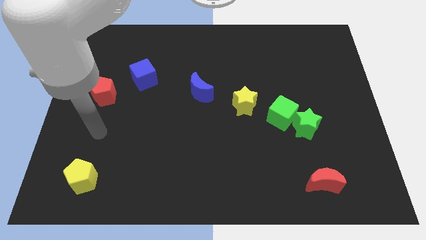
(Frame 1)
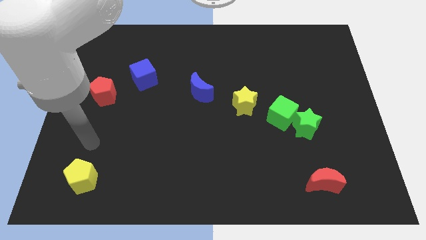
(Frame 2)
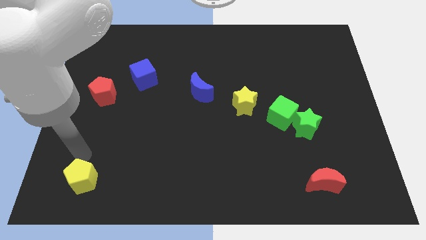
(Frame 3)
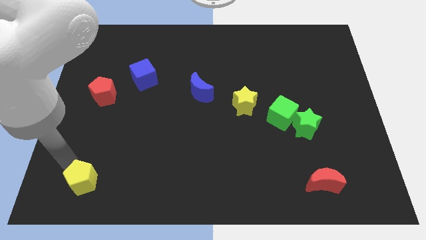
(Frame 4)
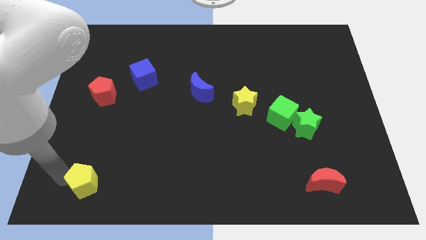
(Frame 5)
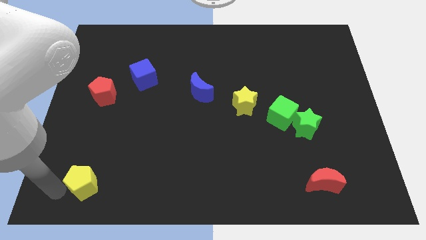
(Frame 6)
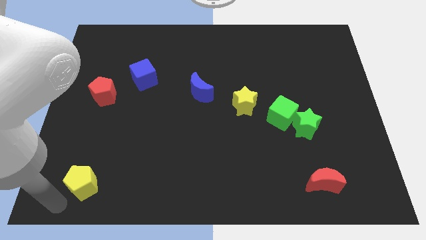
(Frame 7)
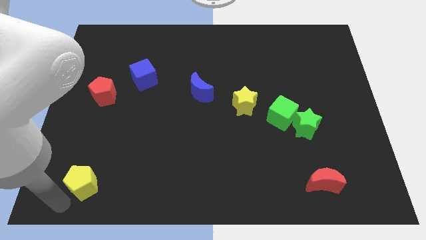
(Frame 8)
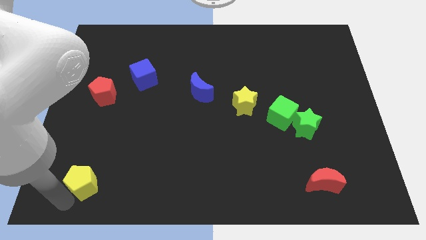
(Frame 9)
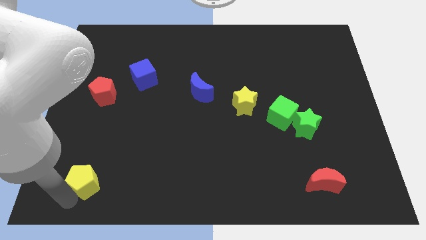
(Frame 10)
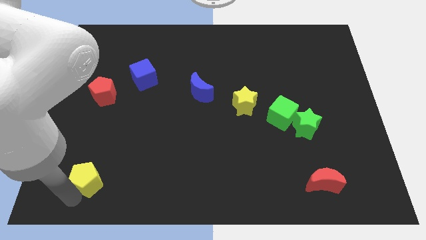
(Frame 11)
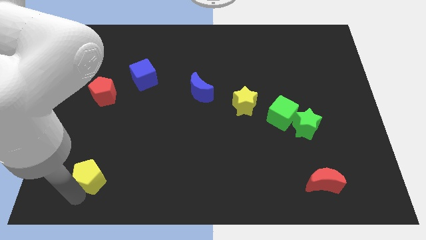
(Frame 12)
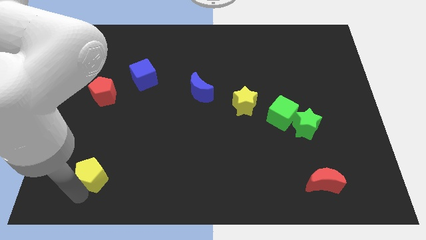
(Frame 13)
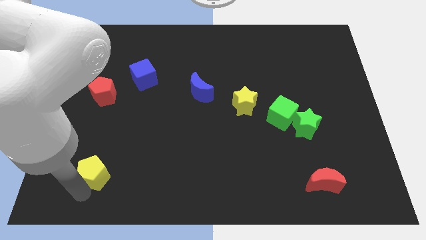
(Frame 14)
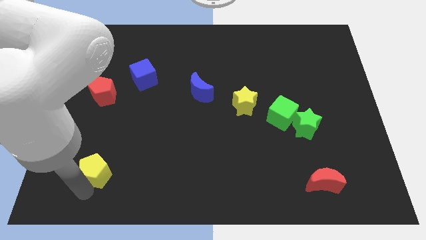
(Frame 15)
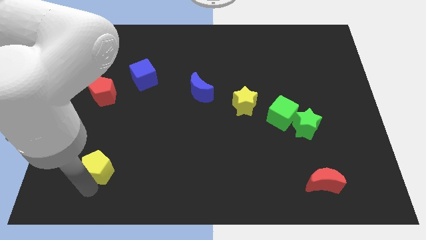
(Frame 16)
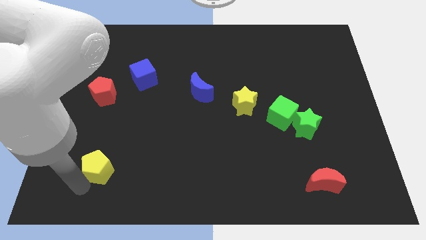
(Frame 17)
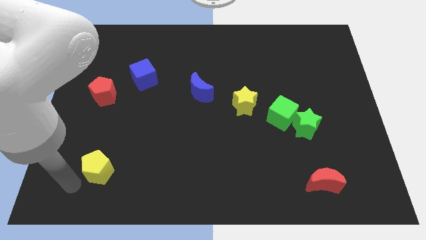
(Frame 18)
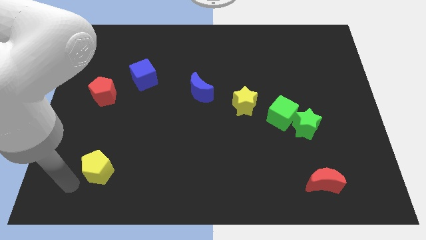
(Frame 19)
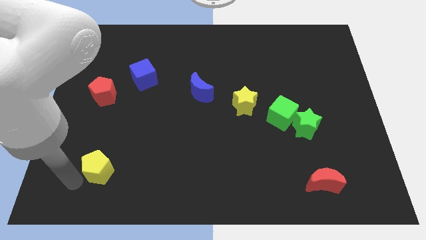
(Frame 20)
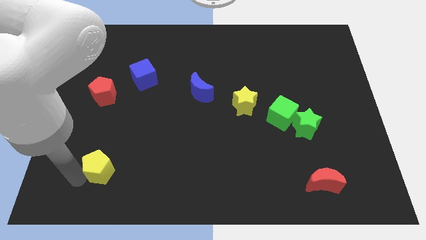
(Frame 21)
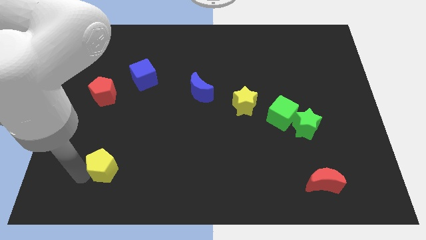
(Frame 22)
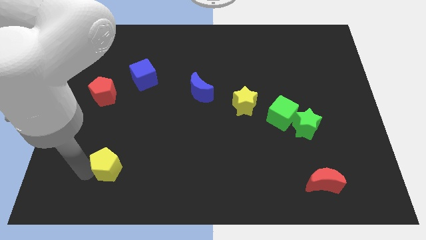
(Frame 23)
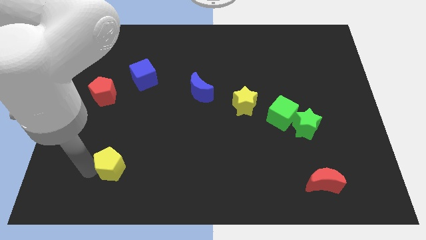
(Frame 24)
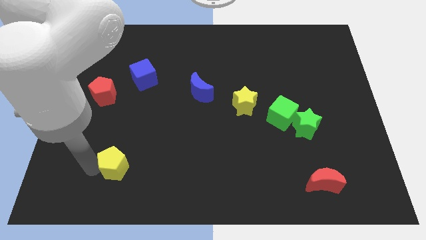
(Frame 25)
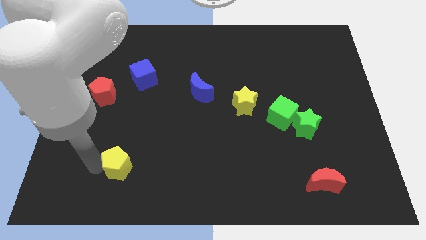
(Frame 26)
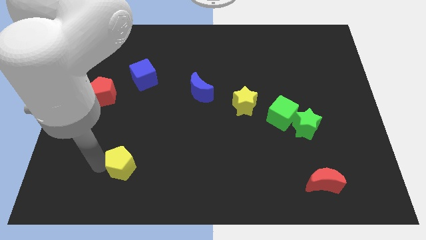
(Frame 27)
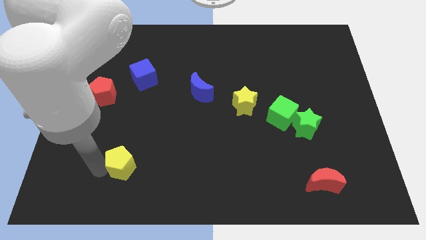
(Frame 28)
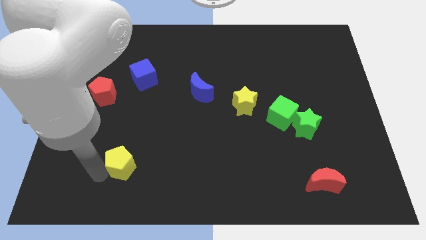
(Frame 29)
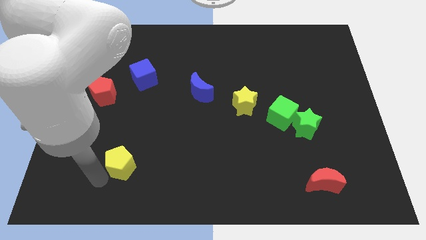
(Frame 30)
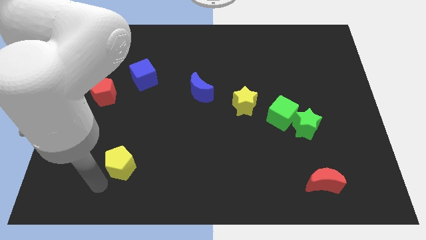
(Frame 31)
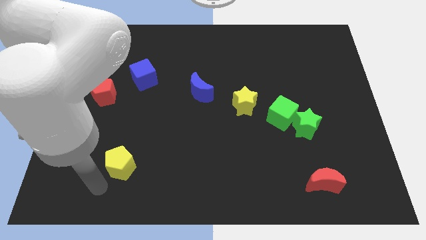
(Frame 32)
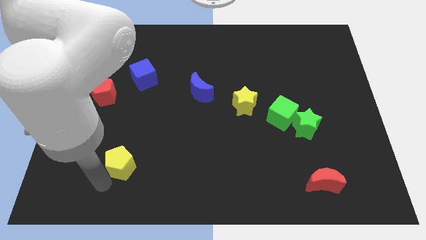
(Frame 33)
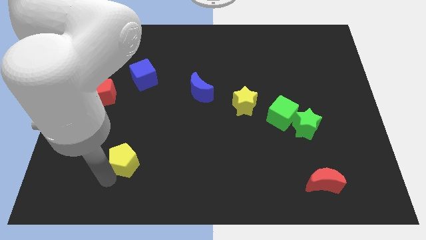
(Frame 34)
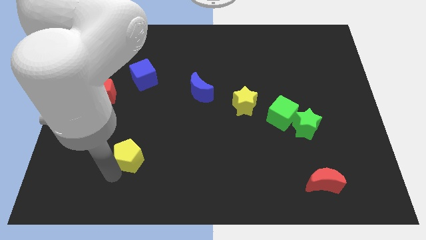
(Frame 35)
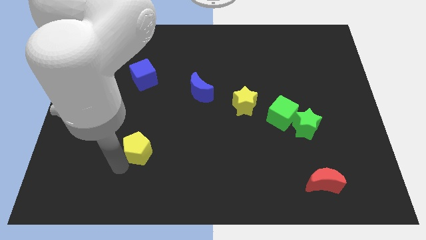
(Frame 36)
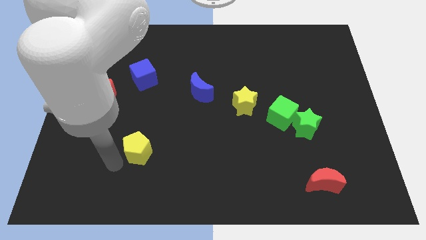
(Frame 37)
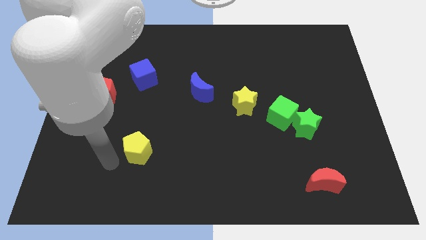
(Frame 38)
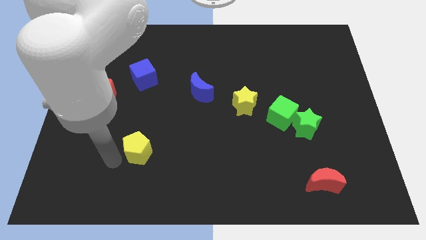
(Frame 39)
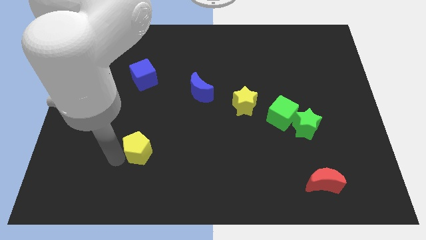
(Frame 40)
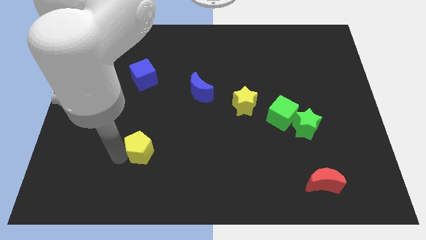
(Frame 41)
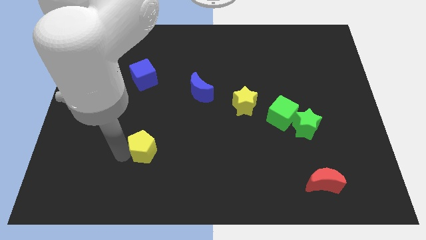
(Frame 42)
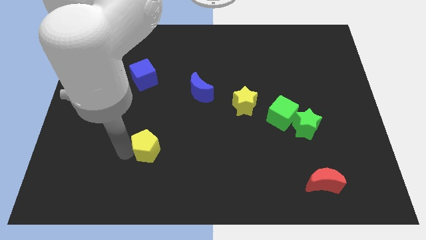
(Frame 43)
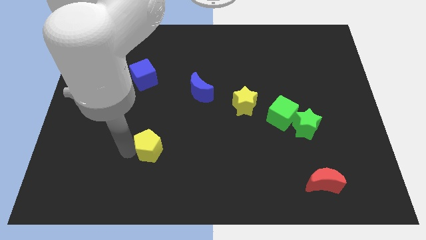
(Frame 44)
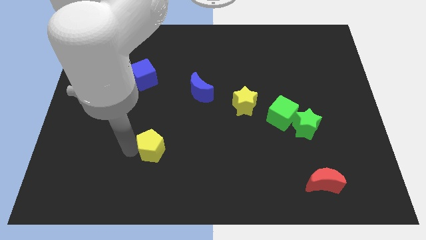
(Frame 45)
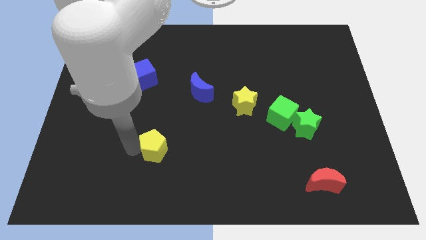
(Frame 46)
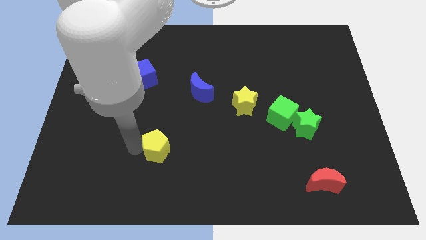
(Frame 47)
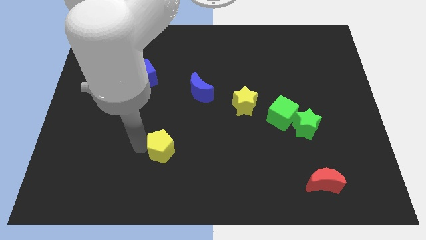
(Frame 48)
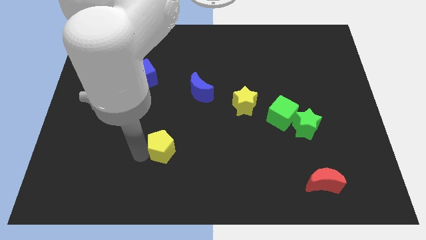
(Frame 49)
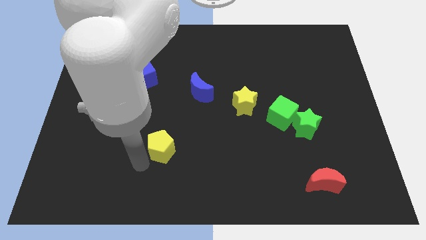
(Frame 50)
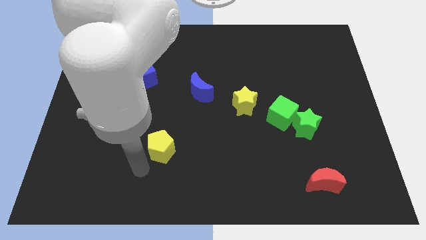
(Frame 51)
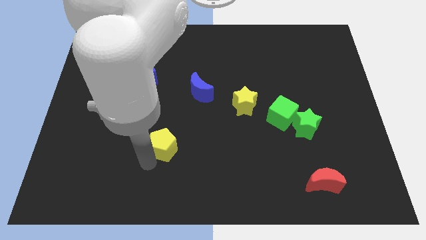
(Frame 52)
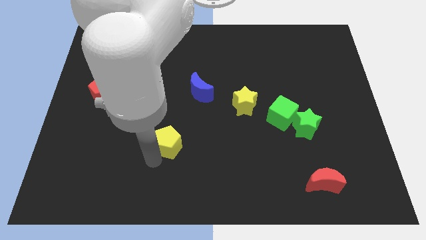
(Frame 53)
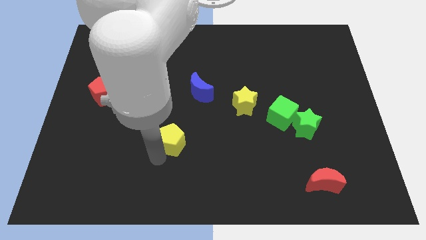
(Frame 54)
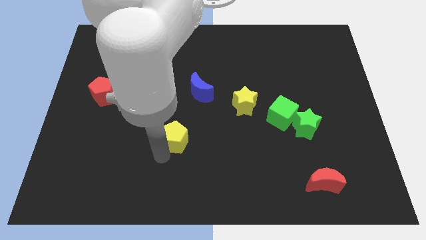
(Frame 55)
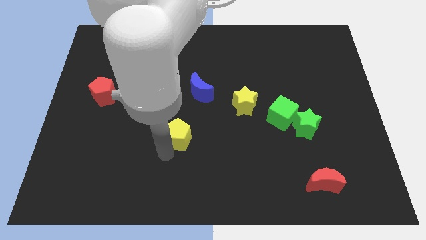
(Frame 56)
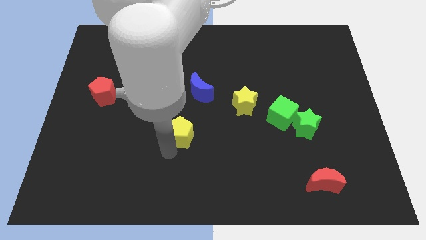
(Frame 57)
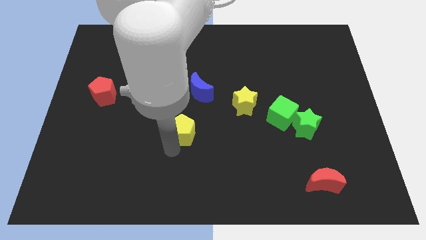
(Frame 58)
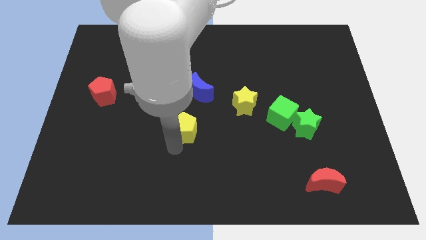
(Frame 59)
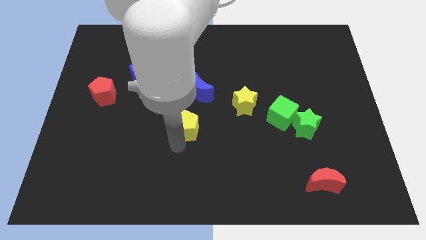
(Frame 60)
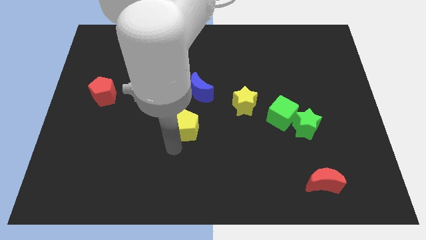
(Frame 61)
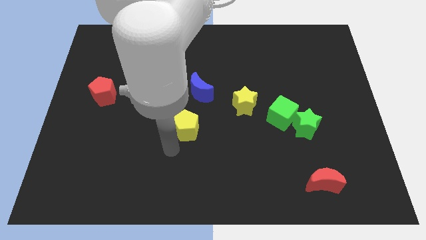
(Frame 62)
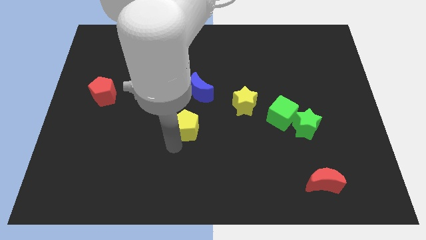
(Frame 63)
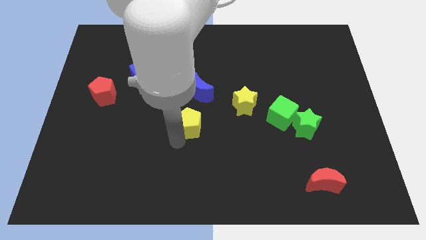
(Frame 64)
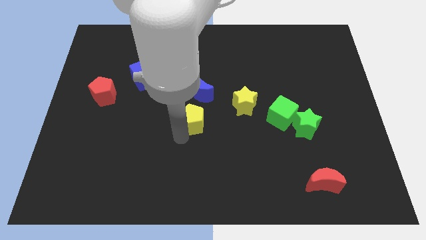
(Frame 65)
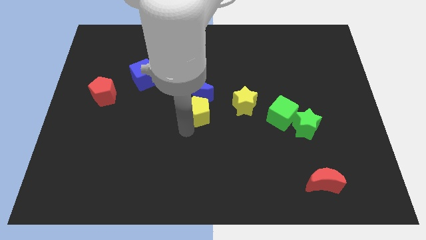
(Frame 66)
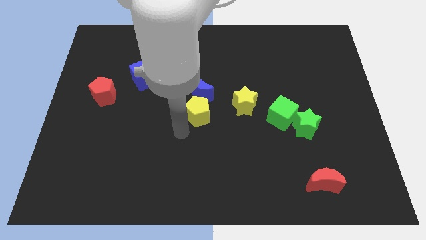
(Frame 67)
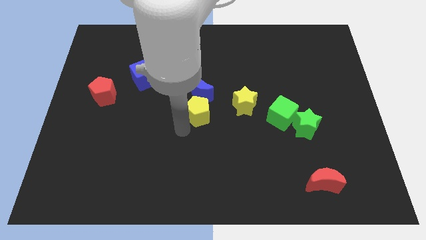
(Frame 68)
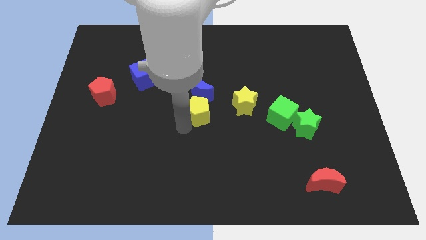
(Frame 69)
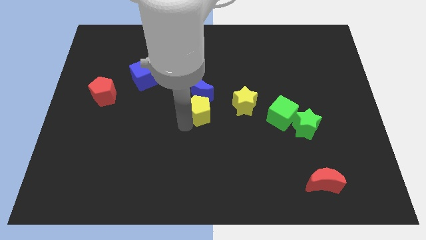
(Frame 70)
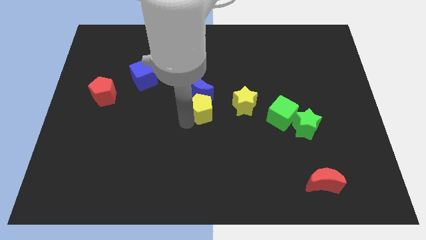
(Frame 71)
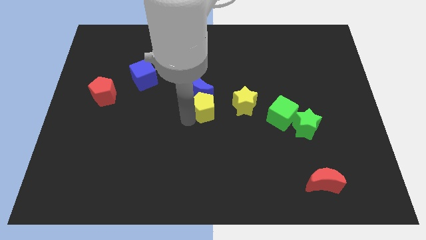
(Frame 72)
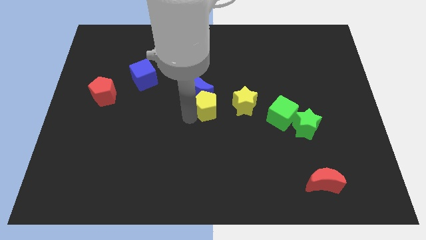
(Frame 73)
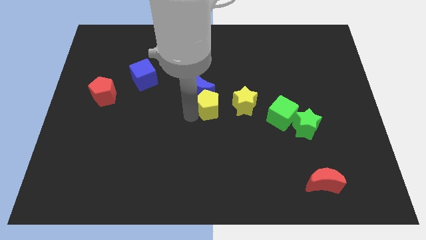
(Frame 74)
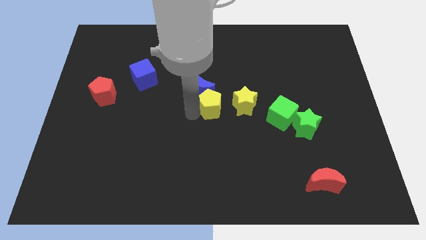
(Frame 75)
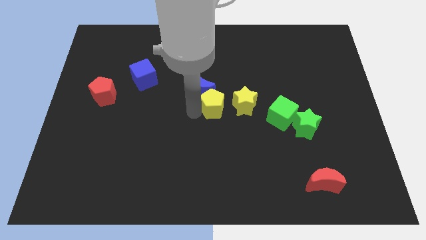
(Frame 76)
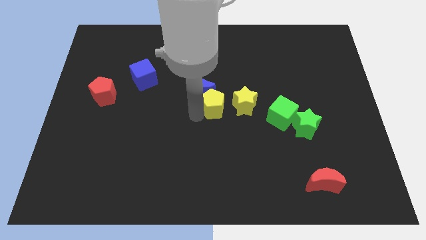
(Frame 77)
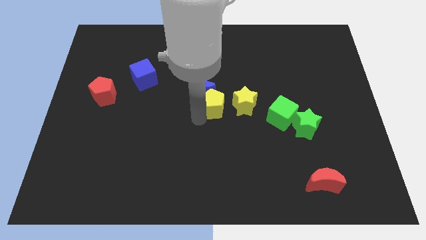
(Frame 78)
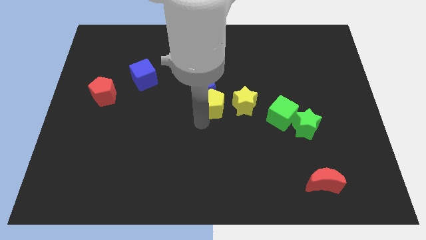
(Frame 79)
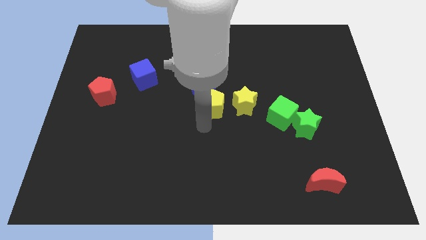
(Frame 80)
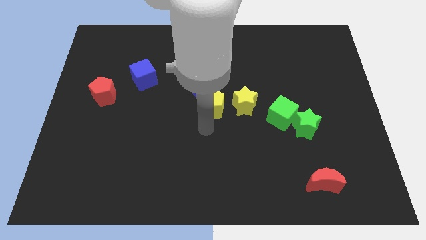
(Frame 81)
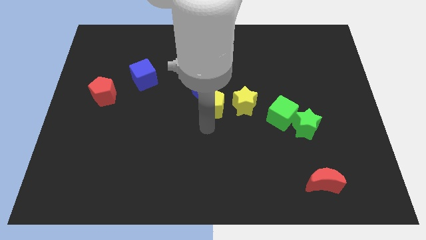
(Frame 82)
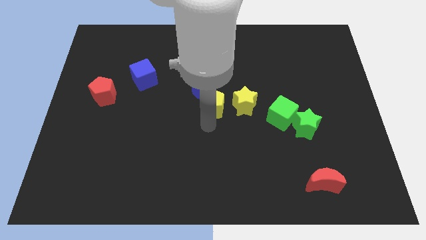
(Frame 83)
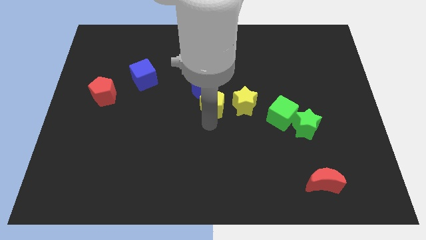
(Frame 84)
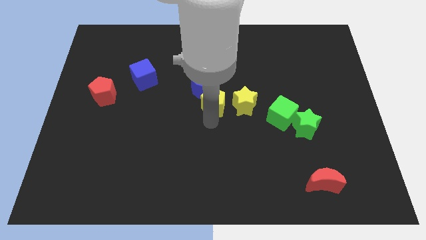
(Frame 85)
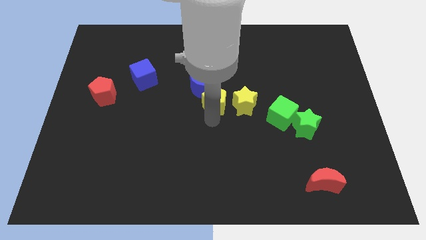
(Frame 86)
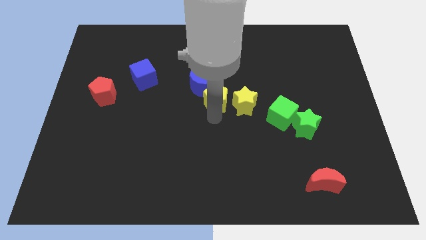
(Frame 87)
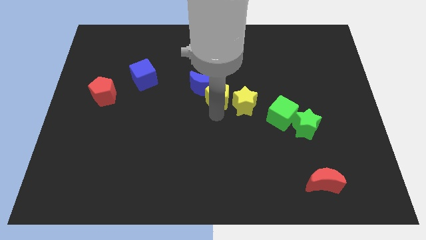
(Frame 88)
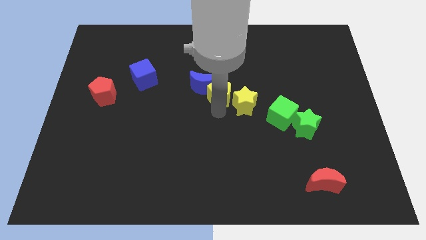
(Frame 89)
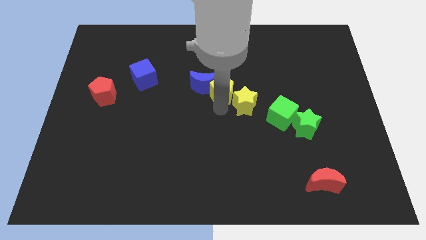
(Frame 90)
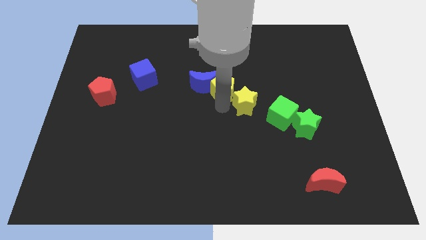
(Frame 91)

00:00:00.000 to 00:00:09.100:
push the yellow pentagon to the top right side of the blue moon
